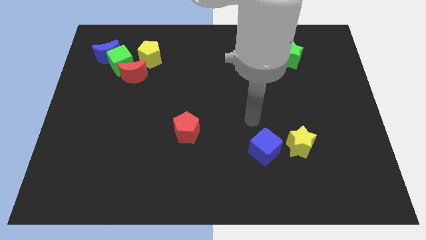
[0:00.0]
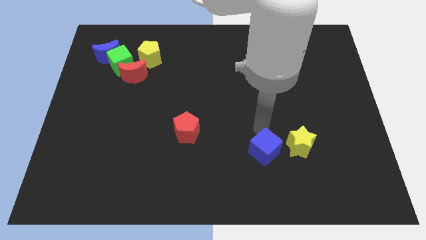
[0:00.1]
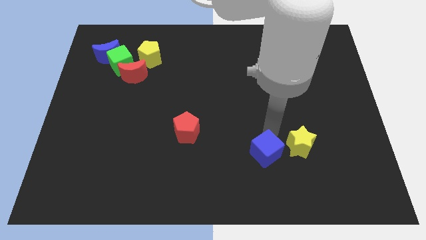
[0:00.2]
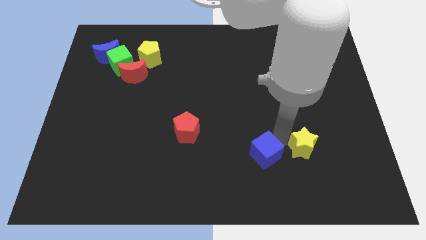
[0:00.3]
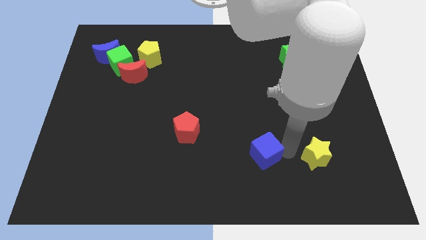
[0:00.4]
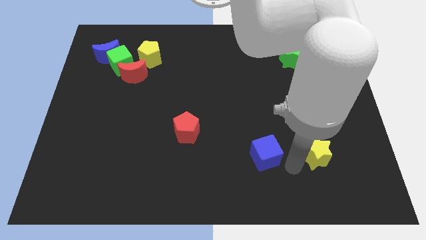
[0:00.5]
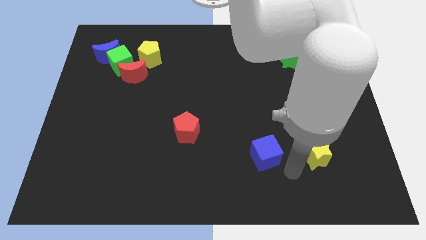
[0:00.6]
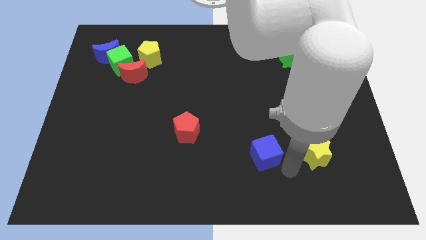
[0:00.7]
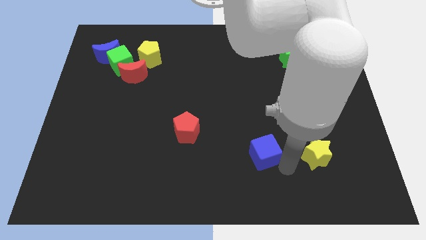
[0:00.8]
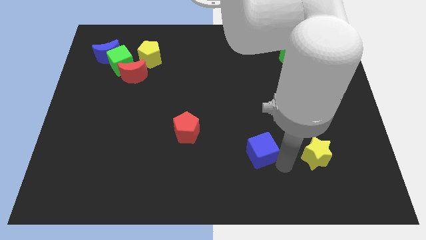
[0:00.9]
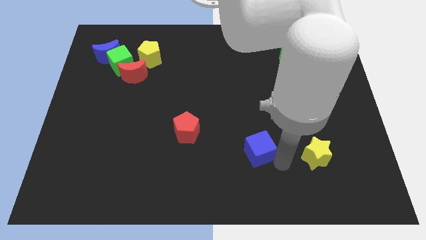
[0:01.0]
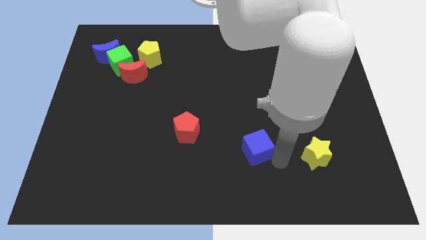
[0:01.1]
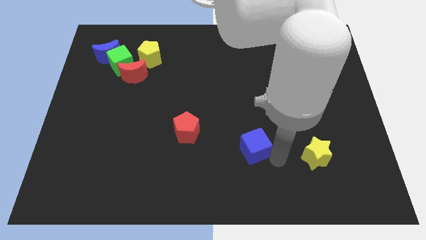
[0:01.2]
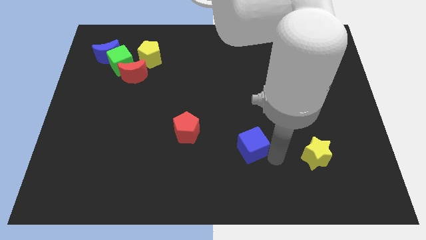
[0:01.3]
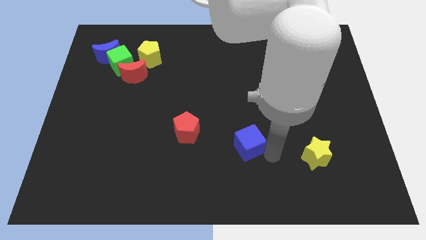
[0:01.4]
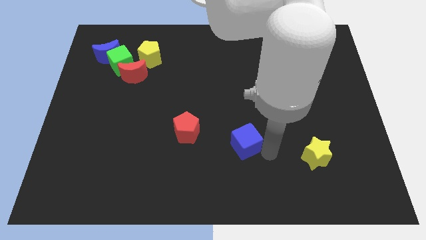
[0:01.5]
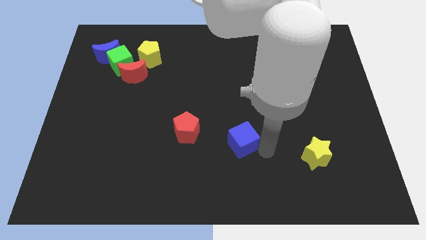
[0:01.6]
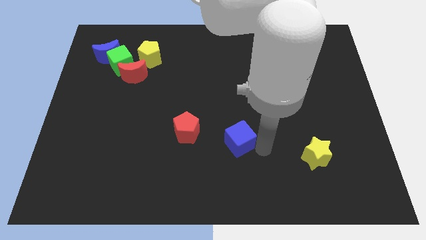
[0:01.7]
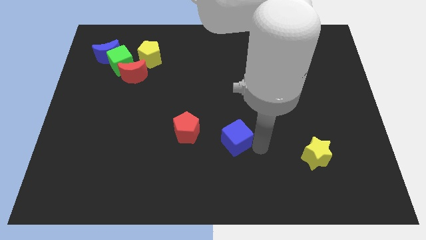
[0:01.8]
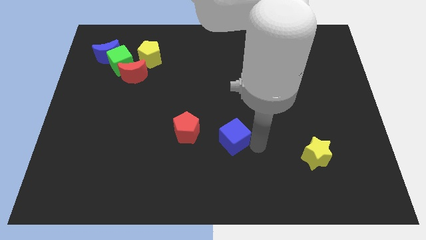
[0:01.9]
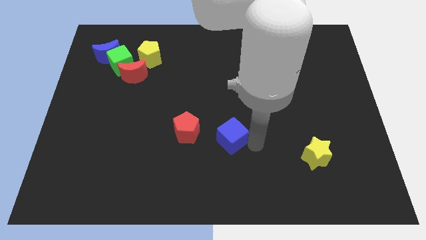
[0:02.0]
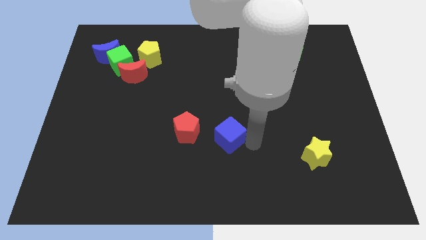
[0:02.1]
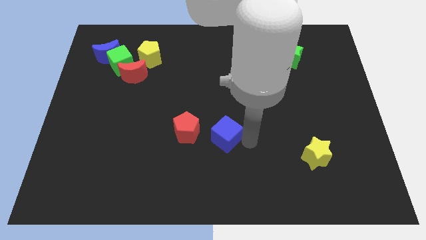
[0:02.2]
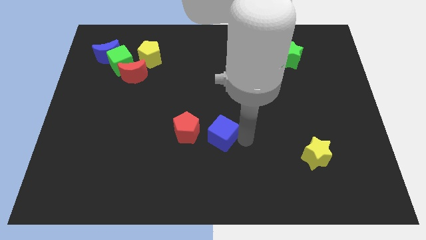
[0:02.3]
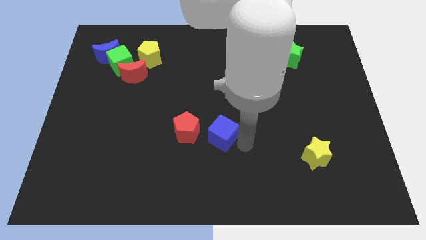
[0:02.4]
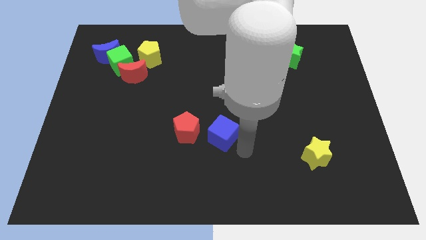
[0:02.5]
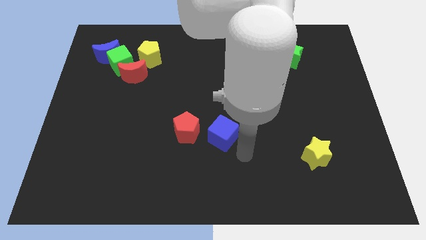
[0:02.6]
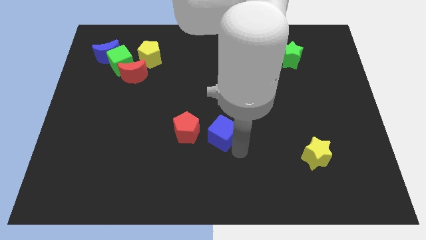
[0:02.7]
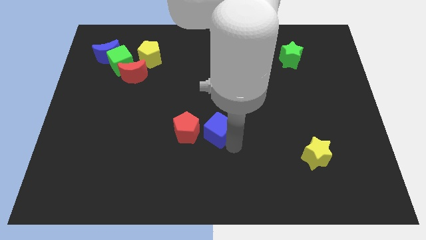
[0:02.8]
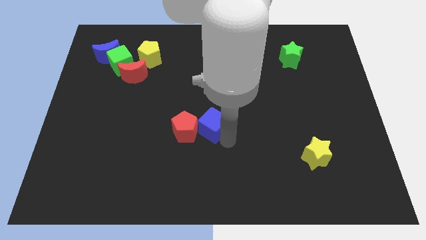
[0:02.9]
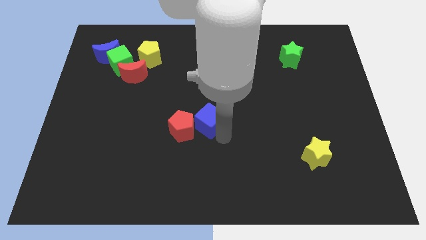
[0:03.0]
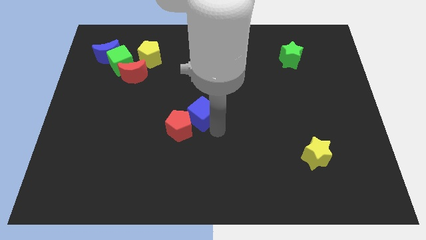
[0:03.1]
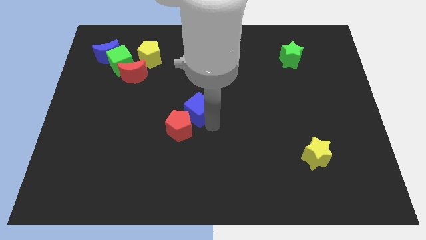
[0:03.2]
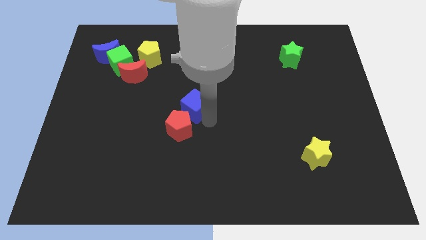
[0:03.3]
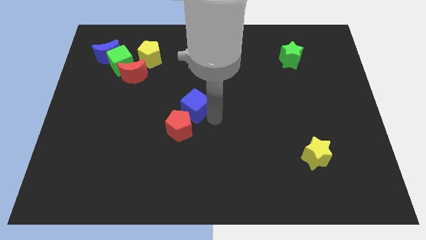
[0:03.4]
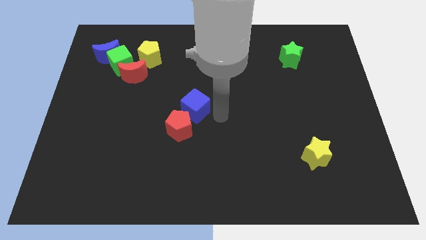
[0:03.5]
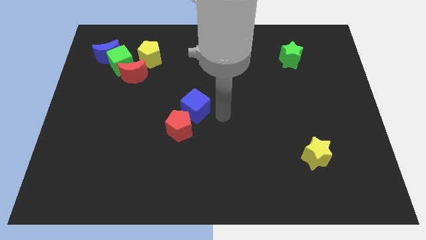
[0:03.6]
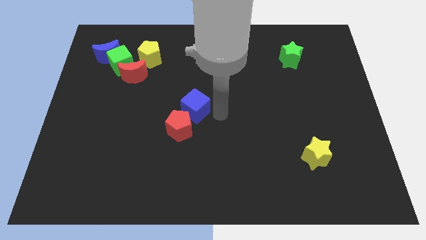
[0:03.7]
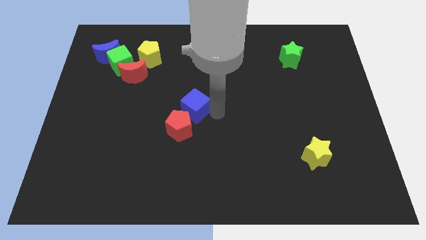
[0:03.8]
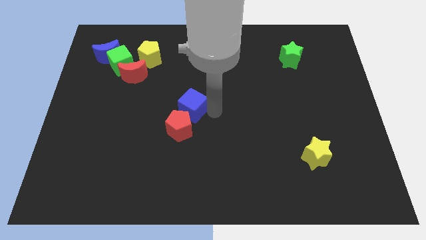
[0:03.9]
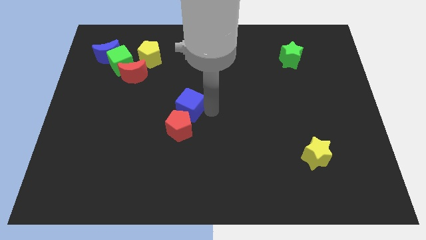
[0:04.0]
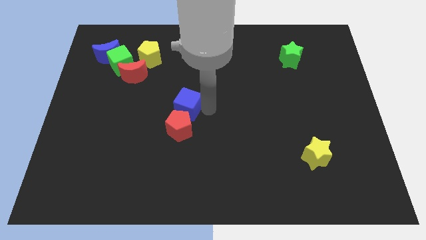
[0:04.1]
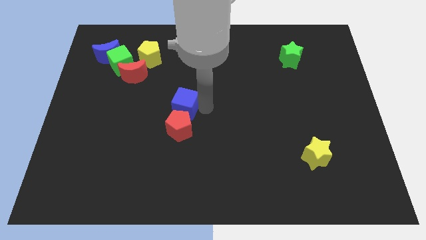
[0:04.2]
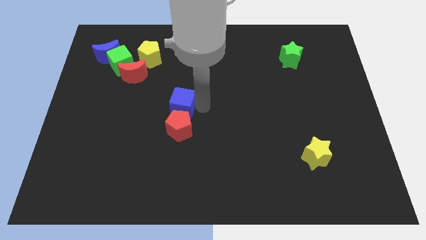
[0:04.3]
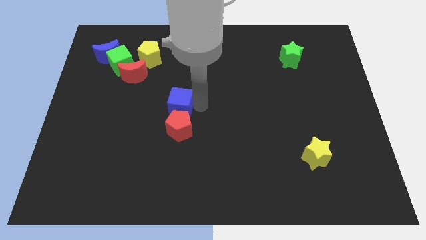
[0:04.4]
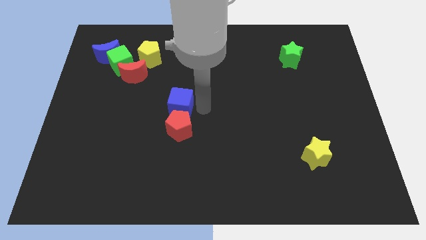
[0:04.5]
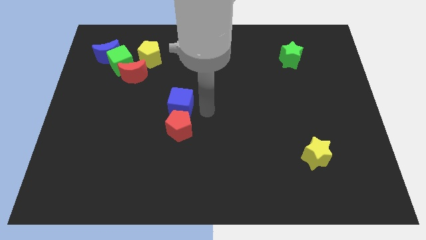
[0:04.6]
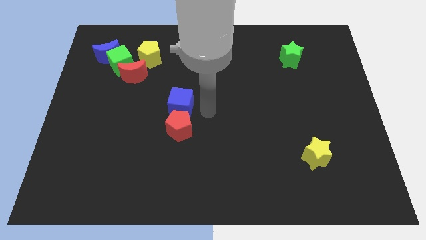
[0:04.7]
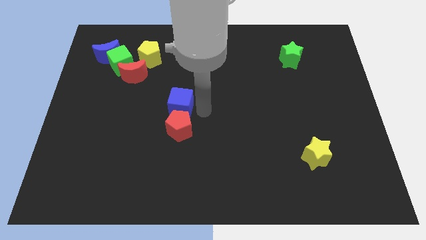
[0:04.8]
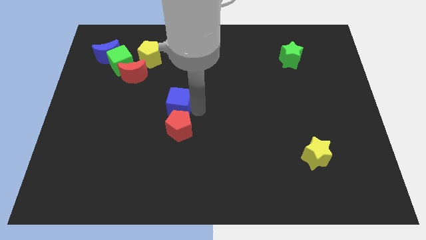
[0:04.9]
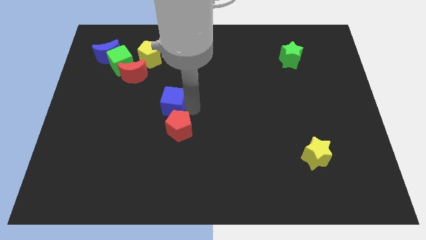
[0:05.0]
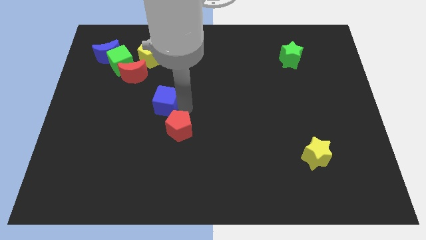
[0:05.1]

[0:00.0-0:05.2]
move the blue cube to the bottom right side of the red moon

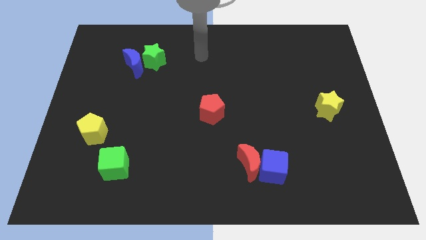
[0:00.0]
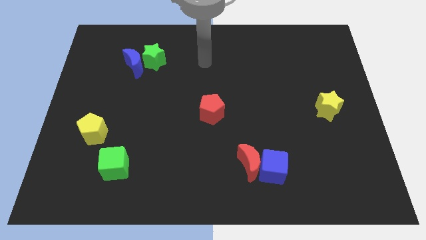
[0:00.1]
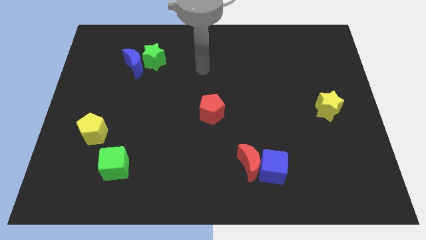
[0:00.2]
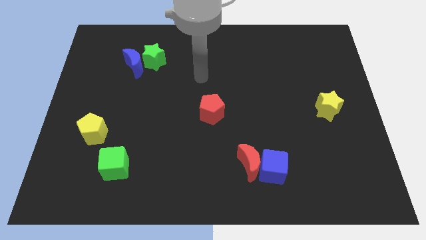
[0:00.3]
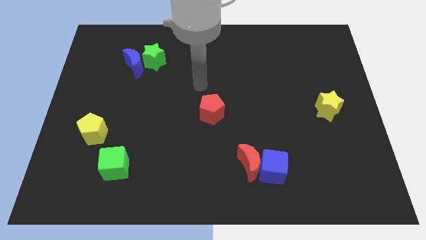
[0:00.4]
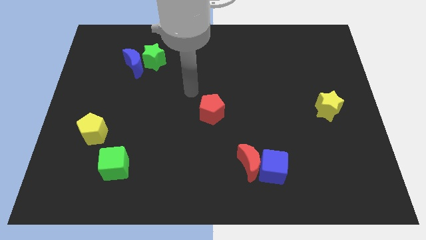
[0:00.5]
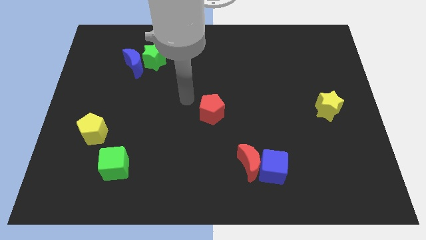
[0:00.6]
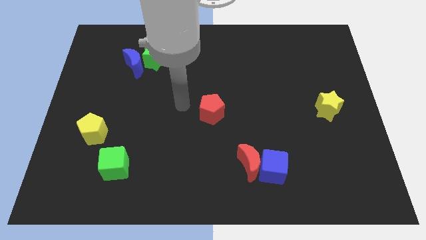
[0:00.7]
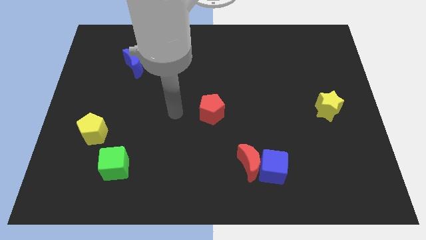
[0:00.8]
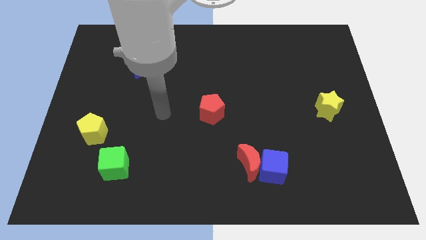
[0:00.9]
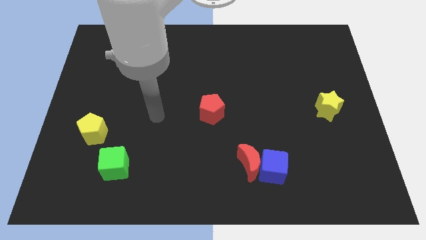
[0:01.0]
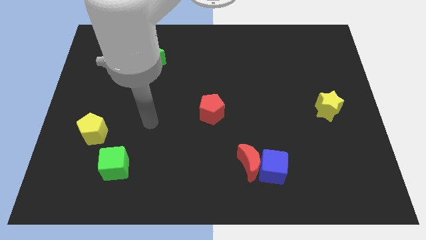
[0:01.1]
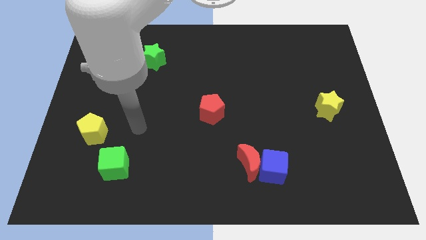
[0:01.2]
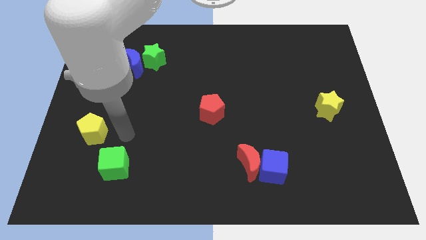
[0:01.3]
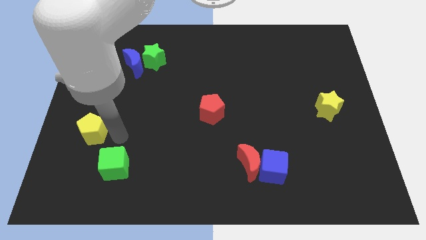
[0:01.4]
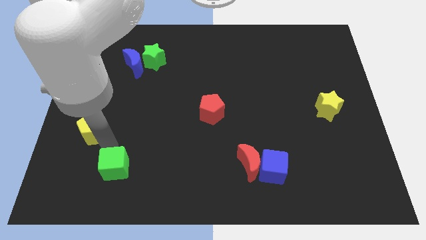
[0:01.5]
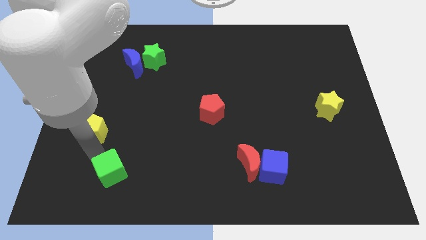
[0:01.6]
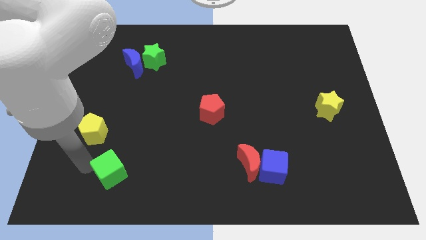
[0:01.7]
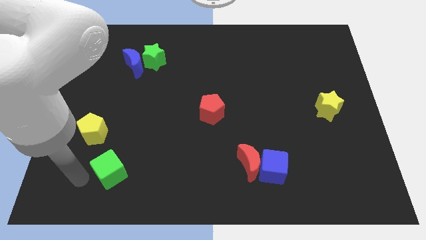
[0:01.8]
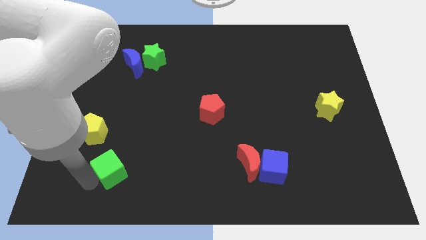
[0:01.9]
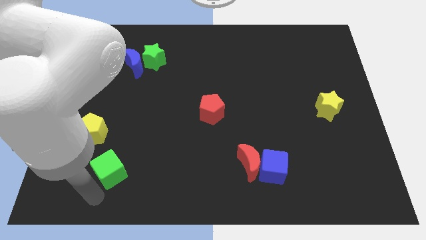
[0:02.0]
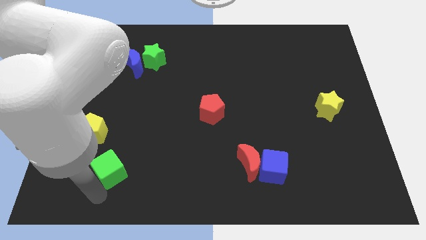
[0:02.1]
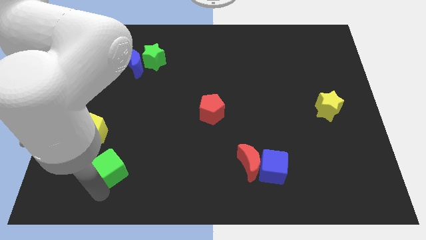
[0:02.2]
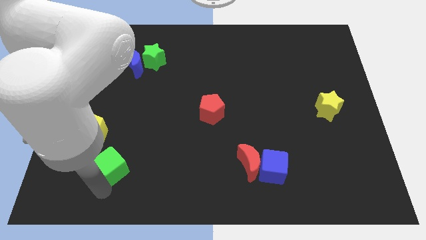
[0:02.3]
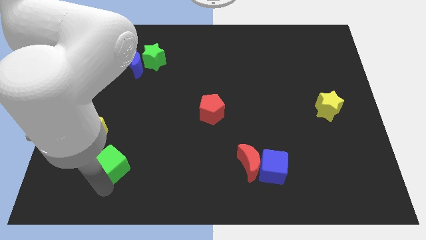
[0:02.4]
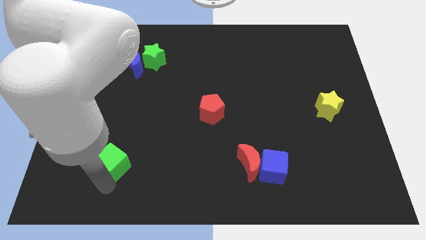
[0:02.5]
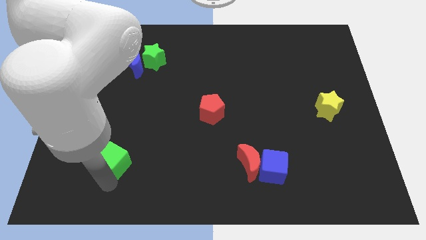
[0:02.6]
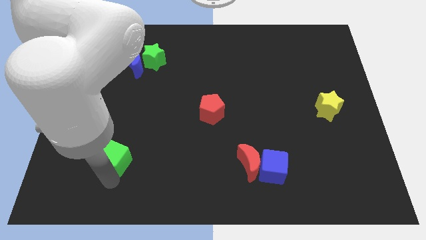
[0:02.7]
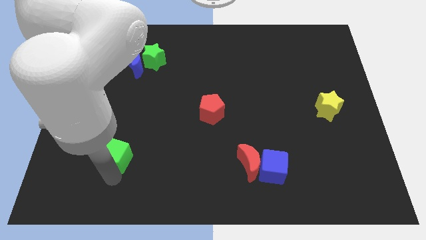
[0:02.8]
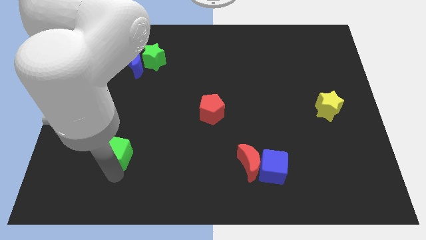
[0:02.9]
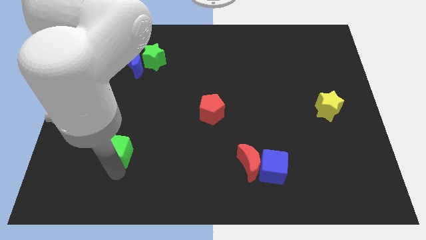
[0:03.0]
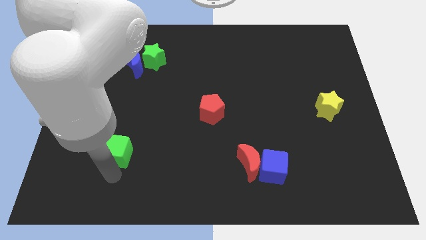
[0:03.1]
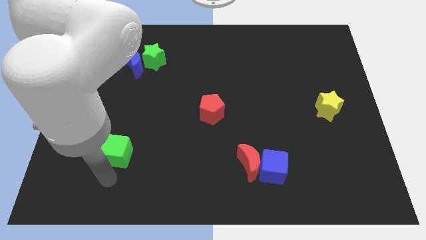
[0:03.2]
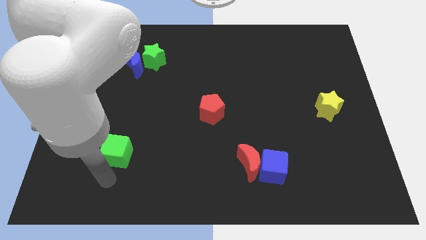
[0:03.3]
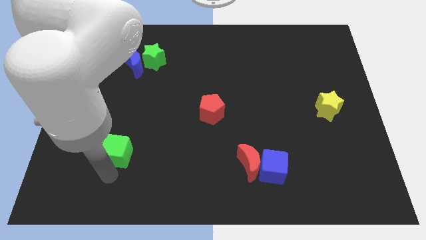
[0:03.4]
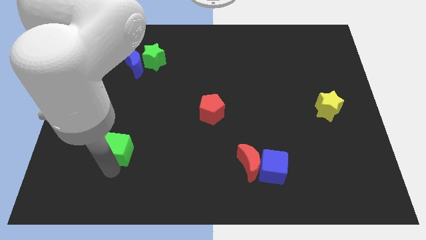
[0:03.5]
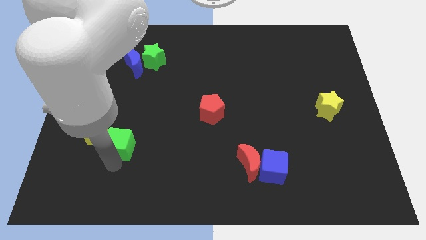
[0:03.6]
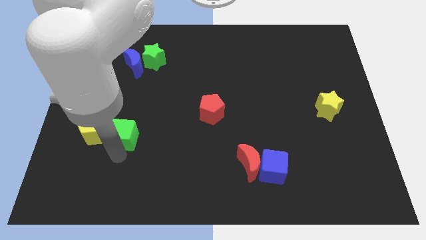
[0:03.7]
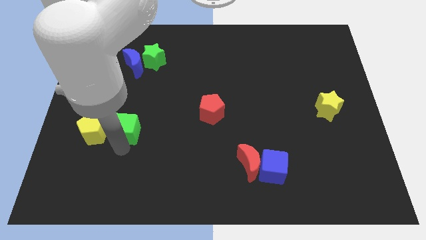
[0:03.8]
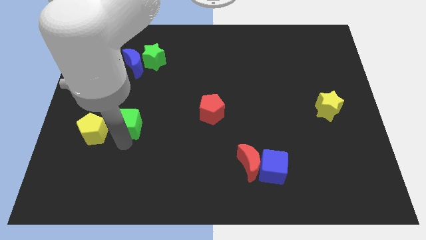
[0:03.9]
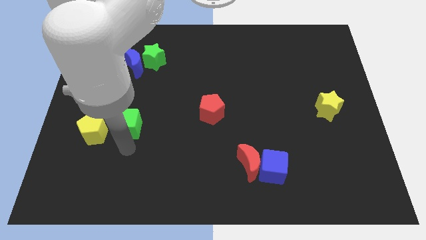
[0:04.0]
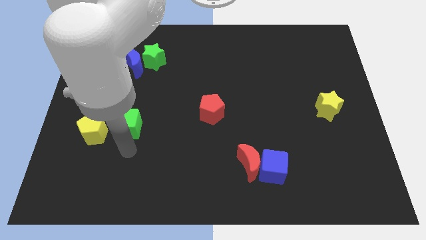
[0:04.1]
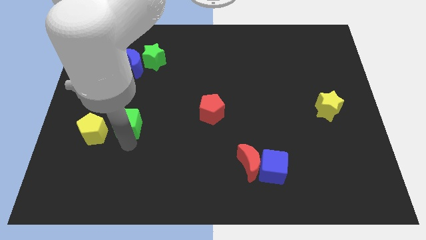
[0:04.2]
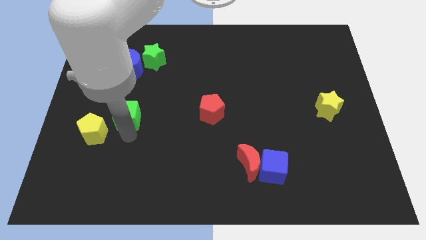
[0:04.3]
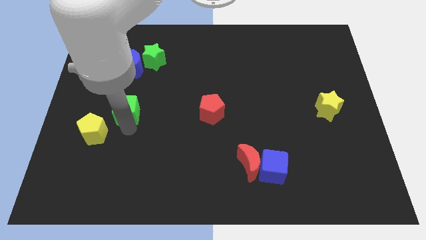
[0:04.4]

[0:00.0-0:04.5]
push the green cube below the blue moon
